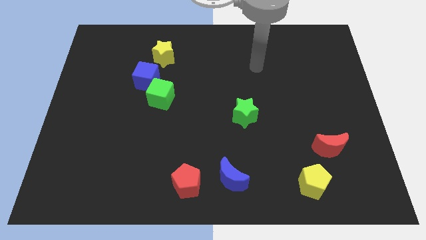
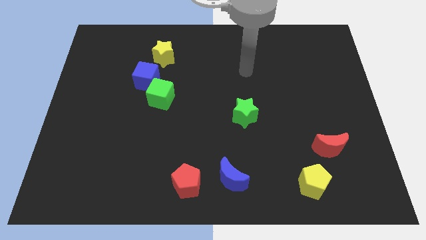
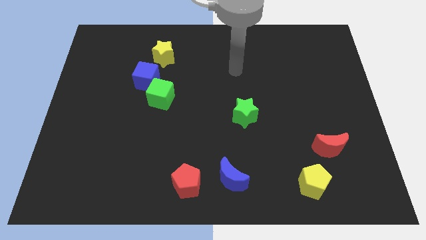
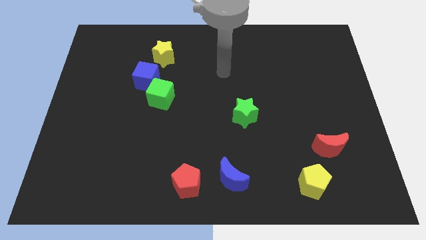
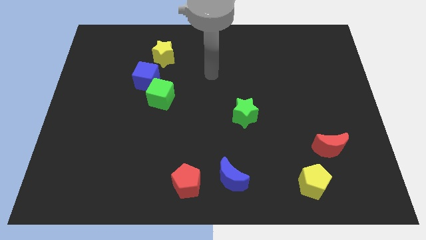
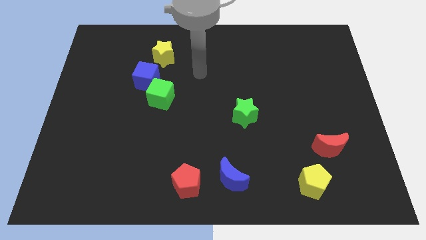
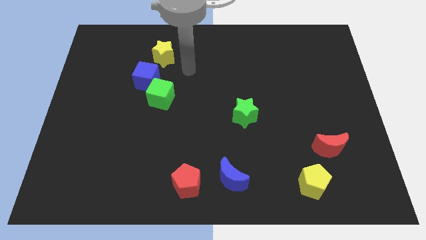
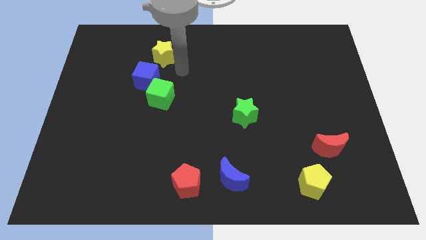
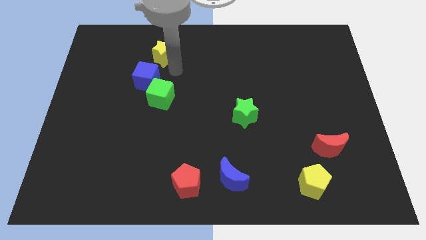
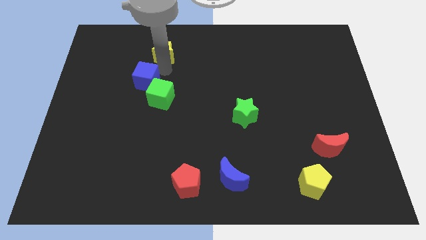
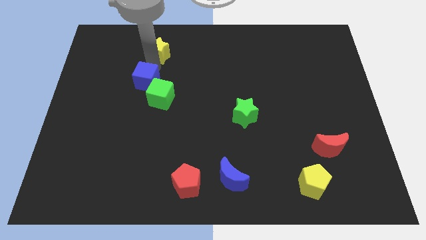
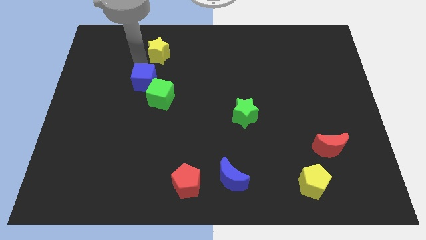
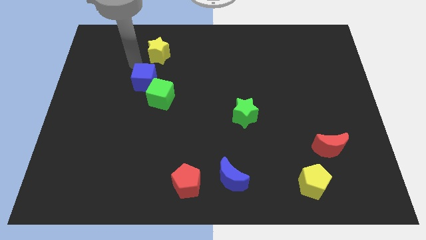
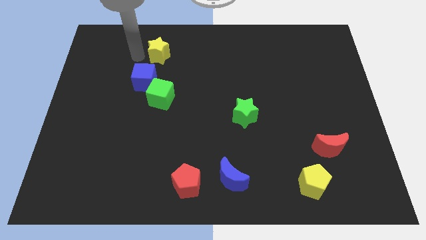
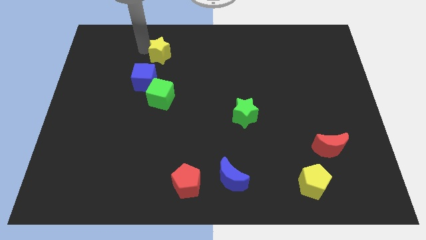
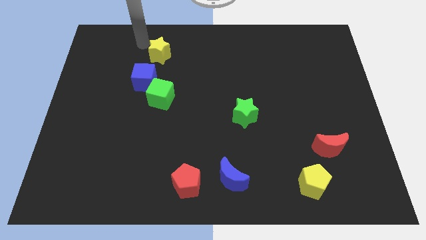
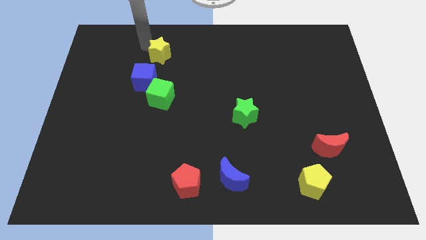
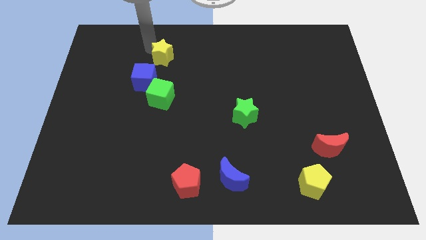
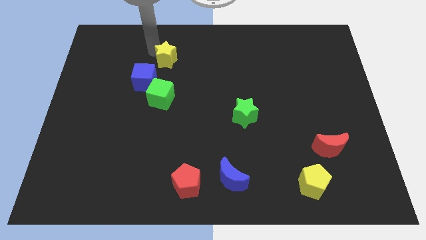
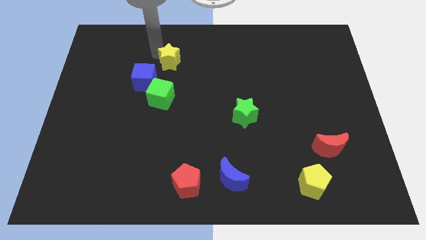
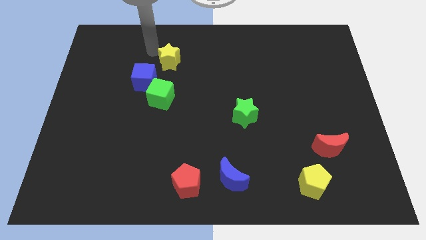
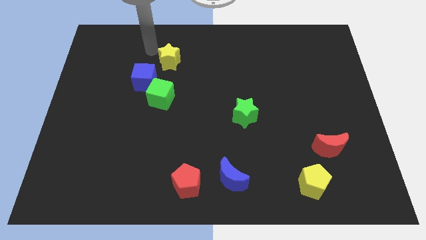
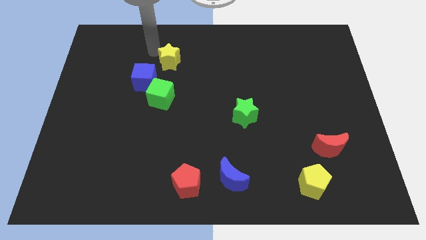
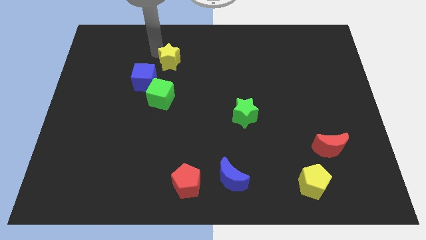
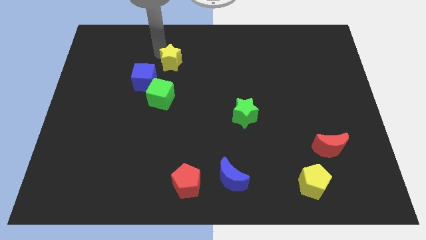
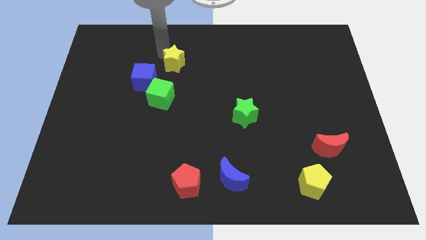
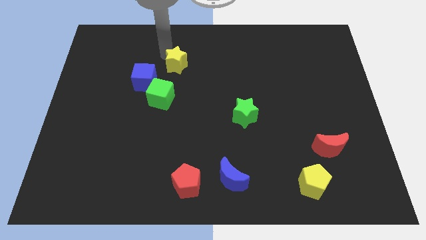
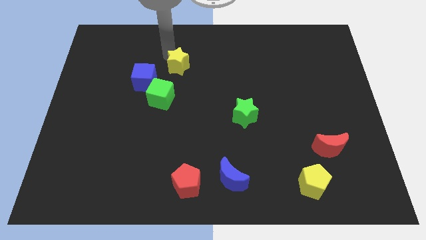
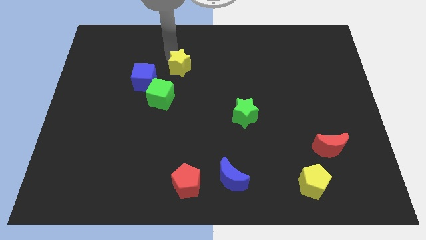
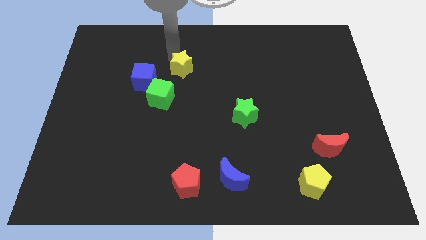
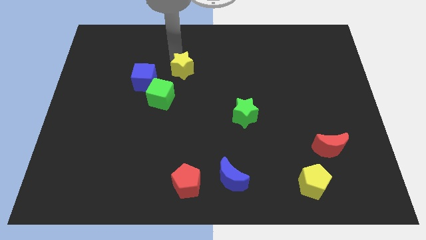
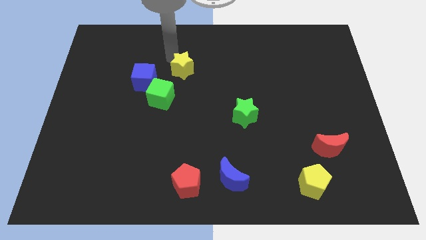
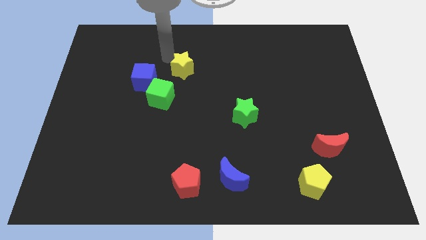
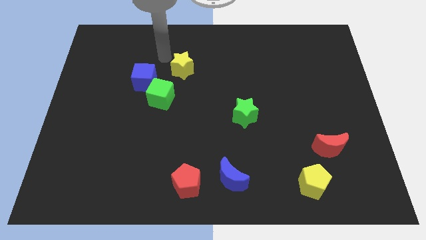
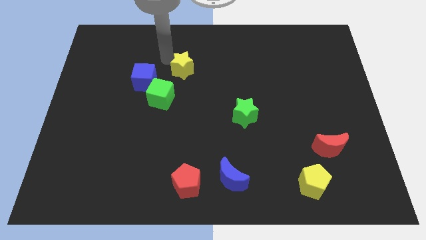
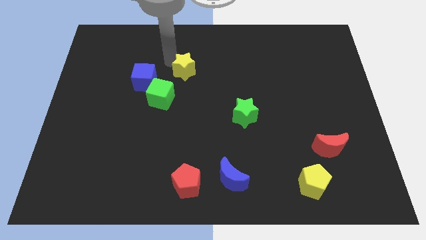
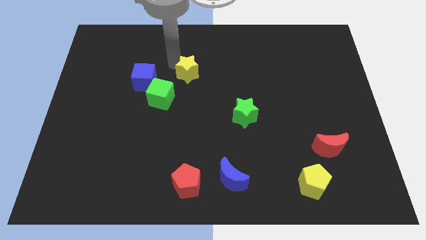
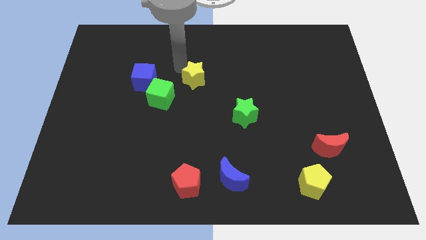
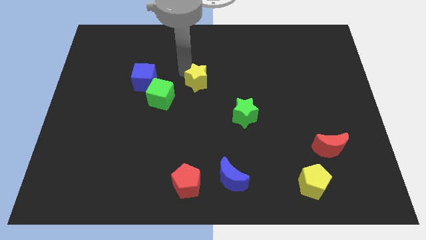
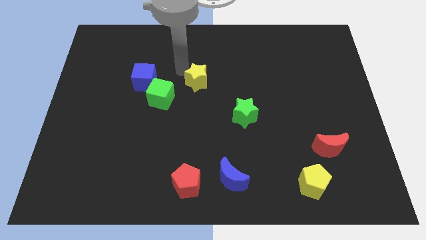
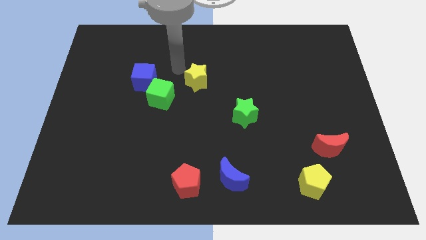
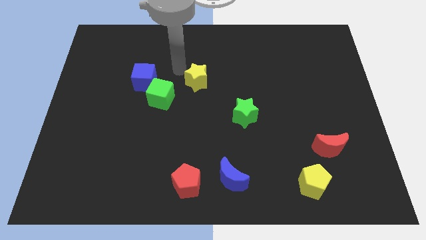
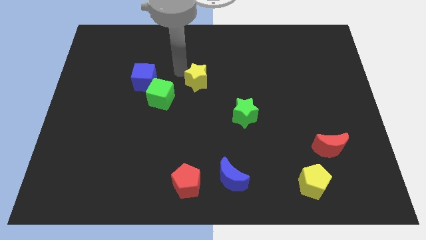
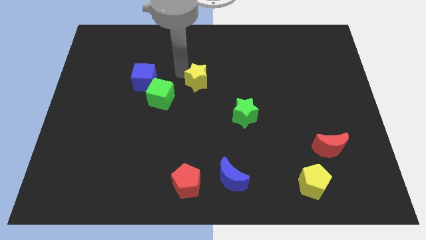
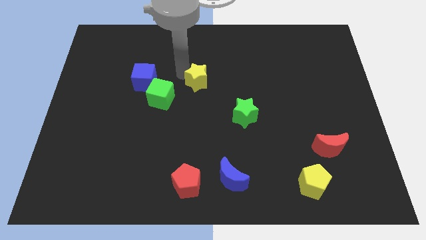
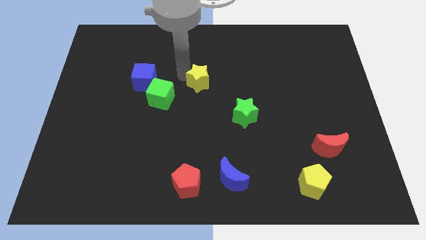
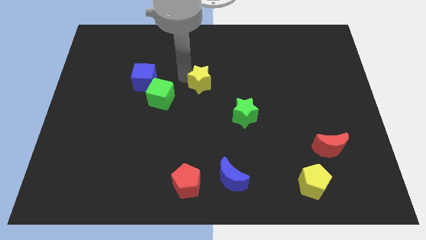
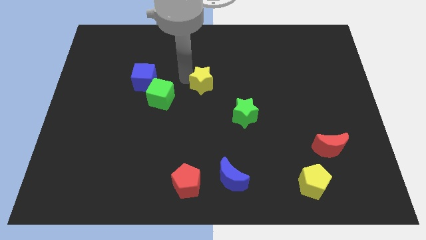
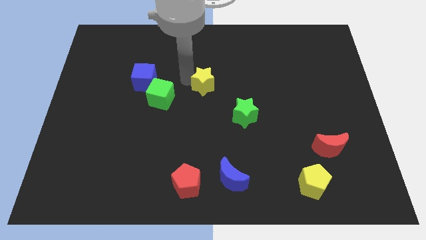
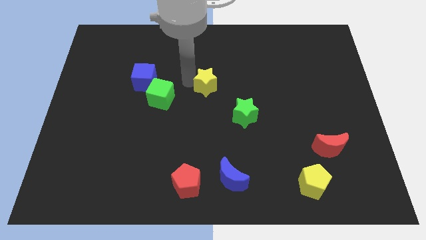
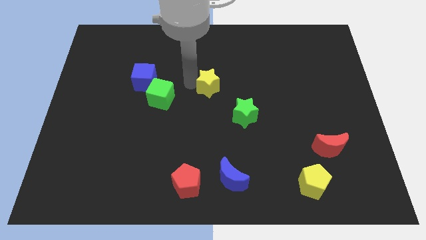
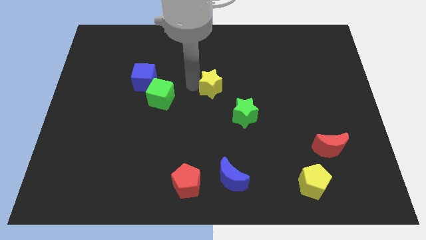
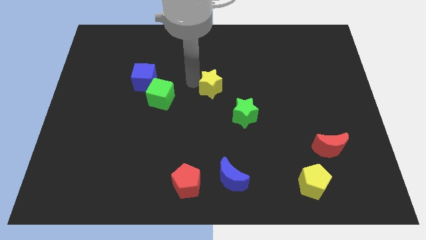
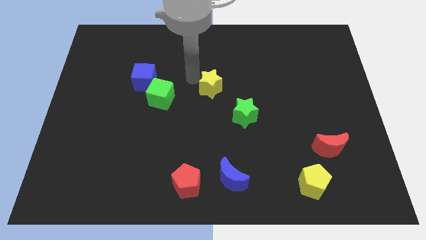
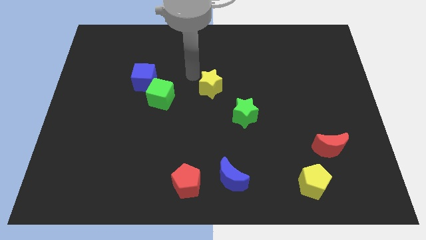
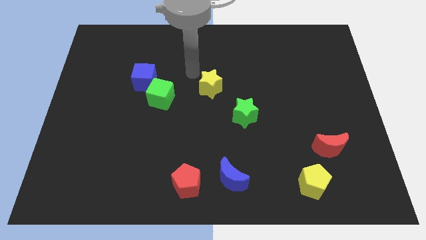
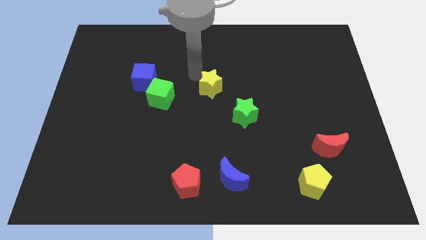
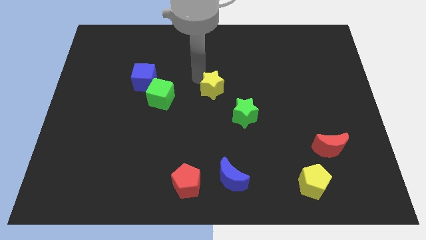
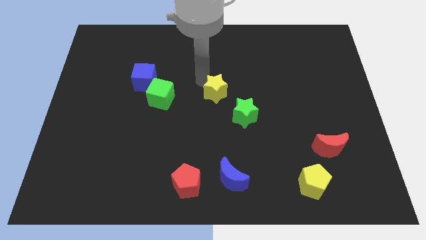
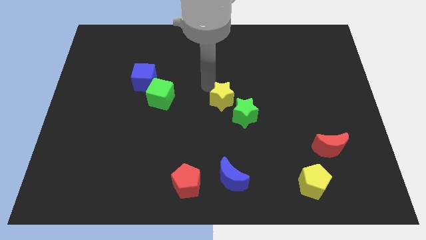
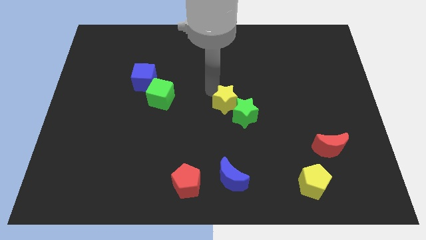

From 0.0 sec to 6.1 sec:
slide the yellow star next to the green star
